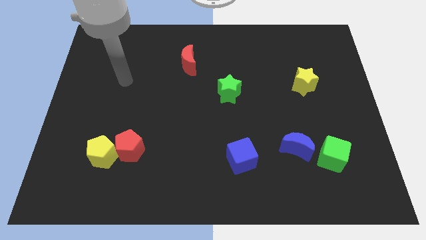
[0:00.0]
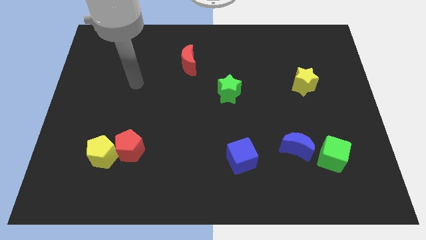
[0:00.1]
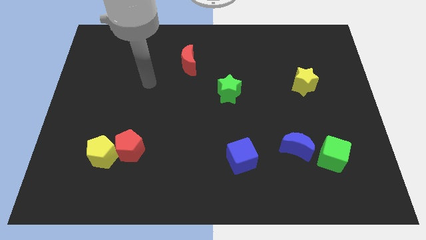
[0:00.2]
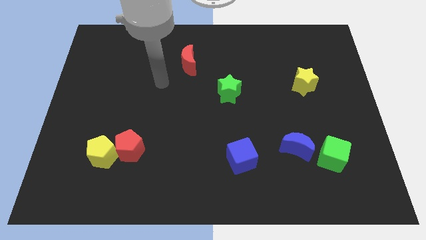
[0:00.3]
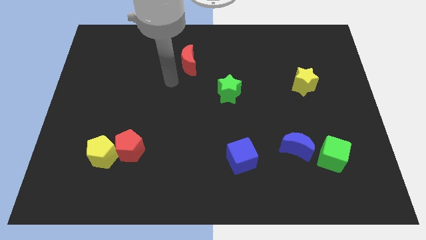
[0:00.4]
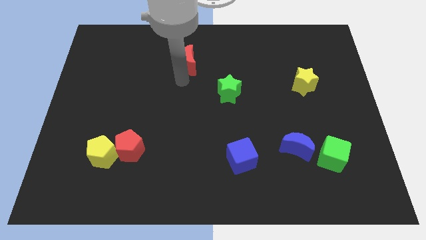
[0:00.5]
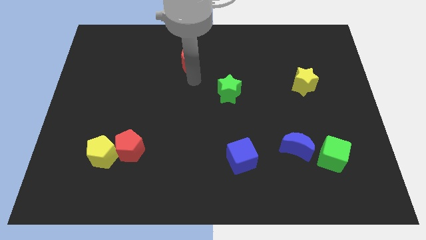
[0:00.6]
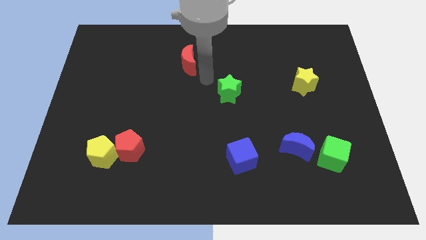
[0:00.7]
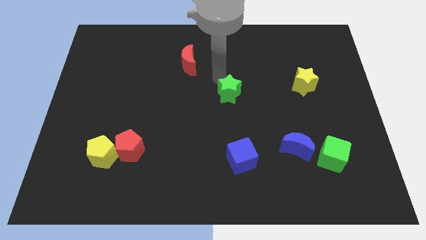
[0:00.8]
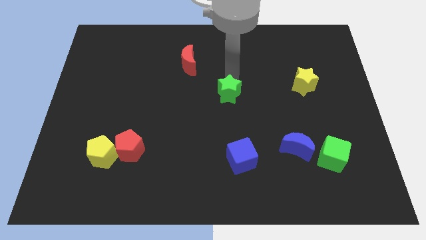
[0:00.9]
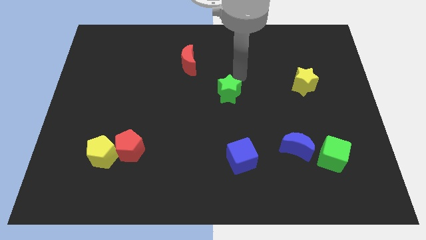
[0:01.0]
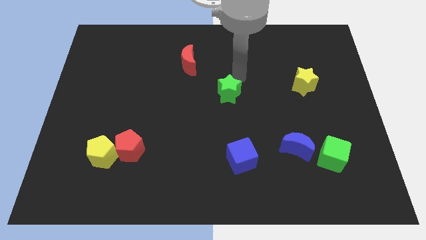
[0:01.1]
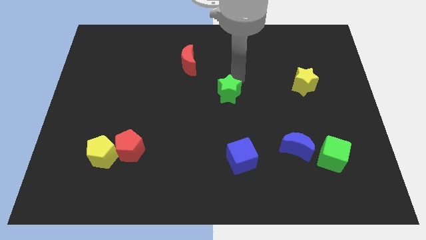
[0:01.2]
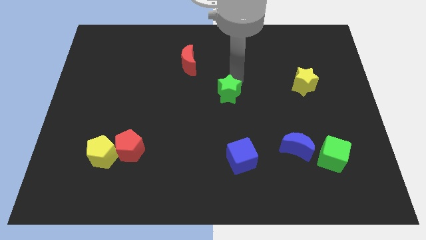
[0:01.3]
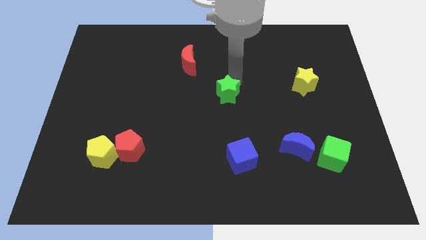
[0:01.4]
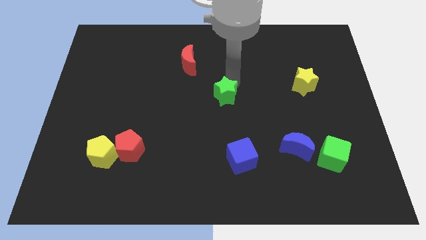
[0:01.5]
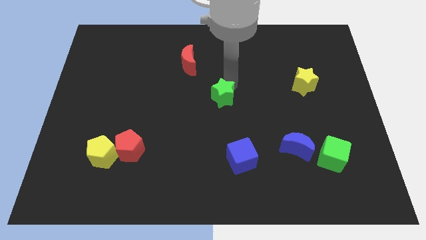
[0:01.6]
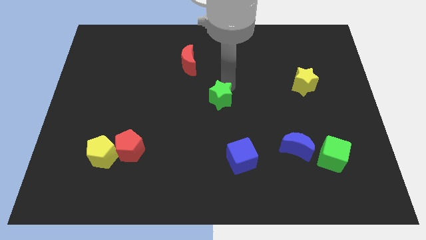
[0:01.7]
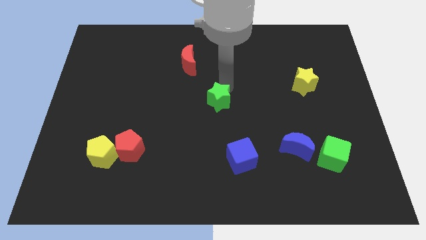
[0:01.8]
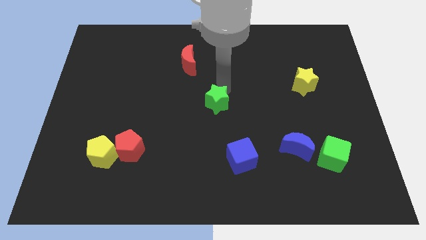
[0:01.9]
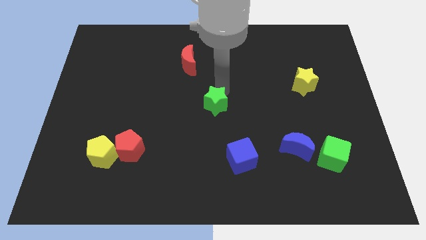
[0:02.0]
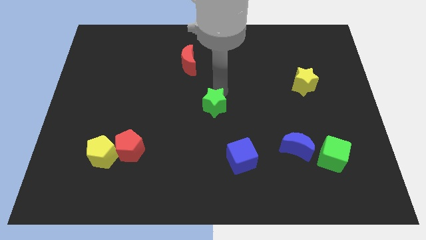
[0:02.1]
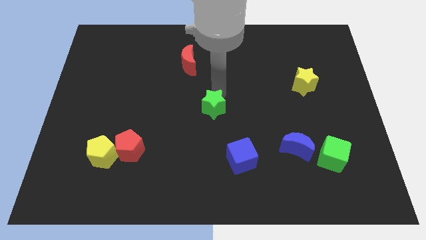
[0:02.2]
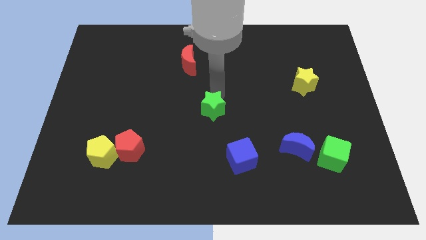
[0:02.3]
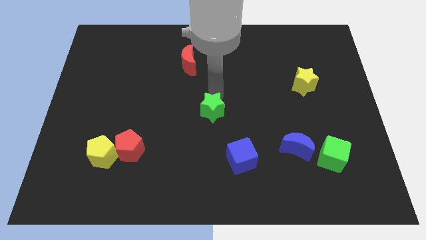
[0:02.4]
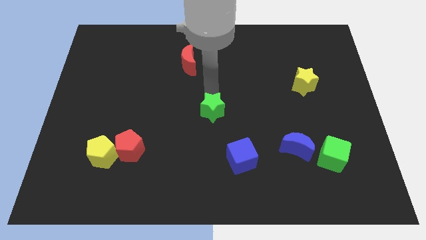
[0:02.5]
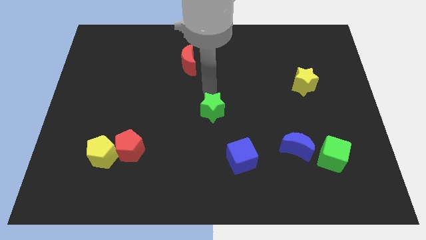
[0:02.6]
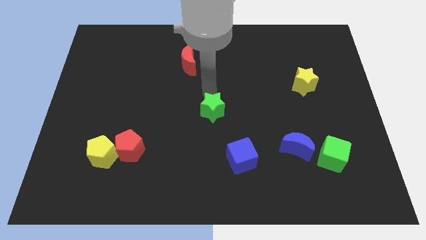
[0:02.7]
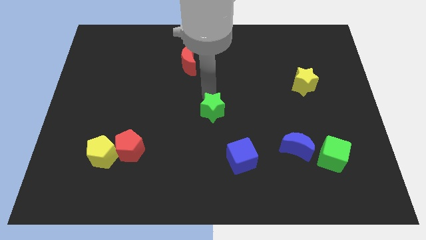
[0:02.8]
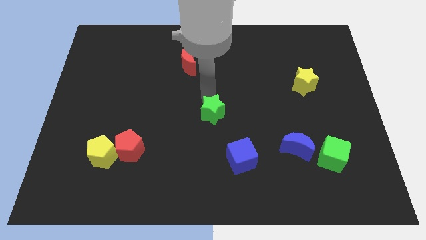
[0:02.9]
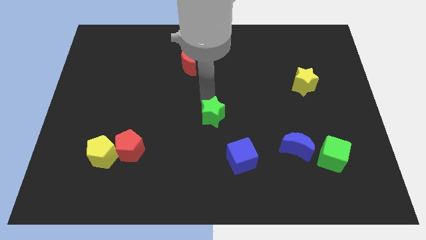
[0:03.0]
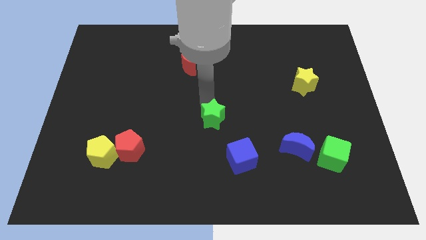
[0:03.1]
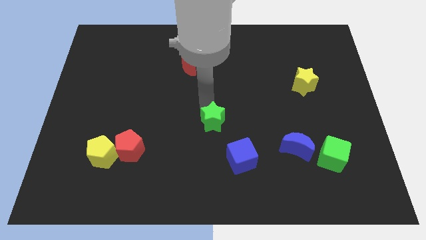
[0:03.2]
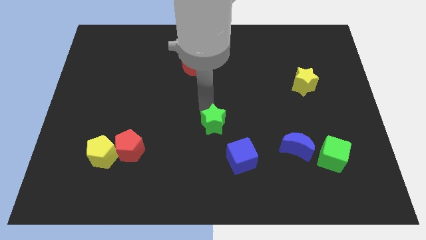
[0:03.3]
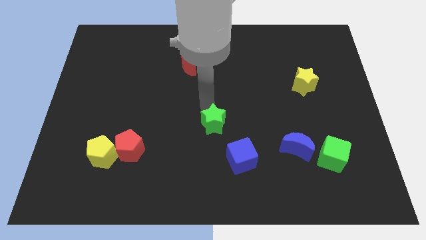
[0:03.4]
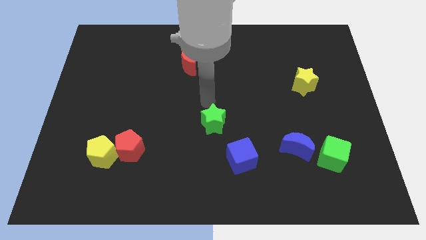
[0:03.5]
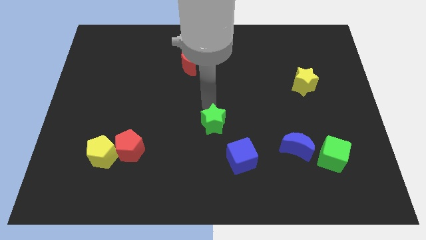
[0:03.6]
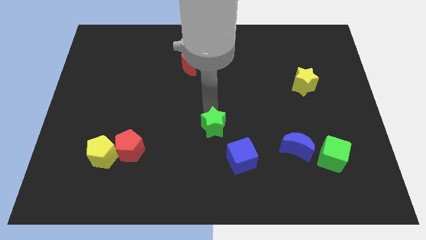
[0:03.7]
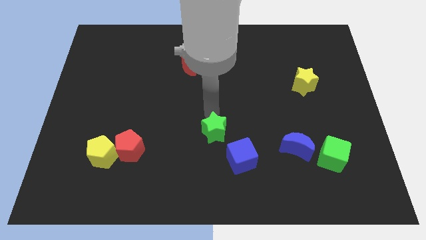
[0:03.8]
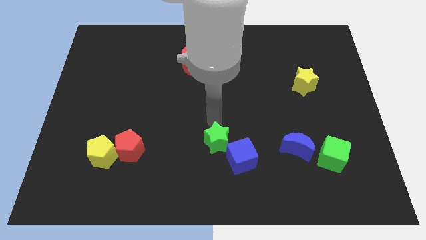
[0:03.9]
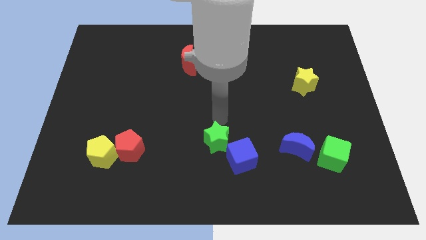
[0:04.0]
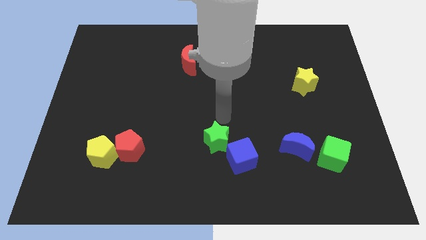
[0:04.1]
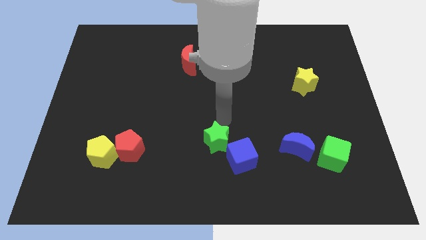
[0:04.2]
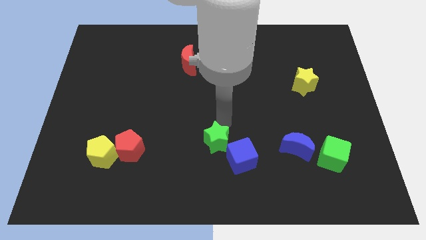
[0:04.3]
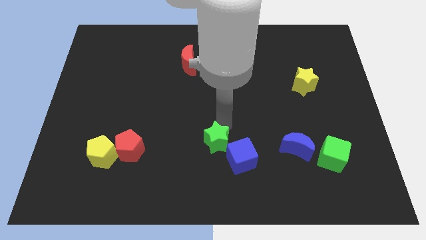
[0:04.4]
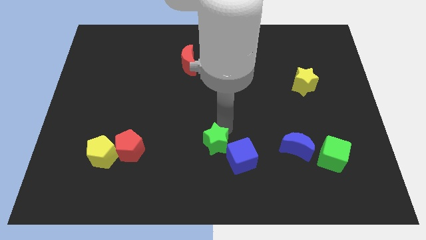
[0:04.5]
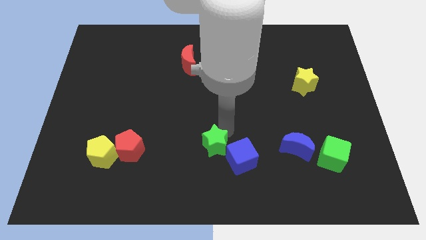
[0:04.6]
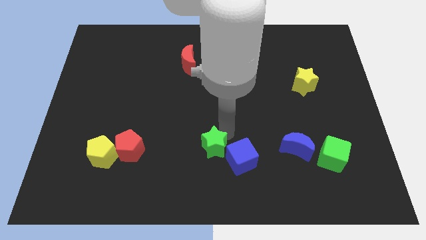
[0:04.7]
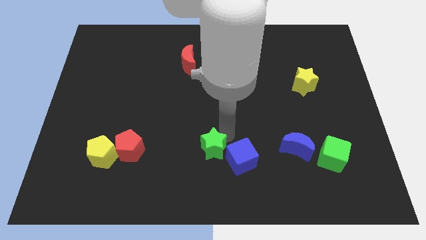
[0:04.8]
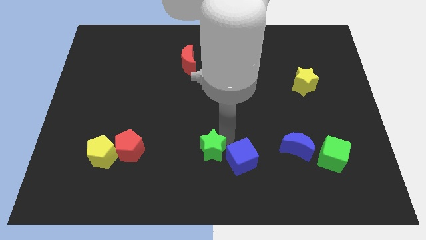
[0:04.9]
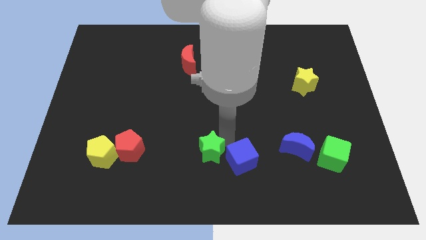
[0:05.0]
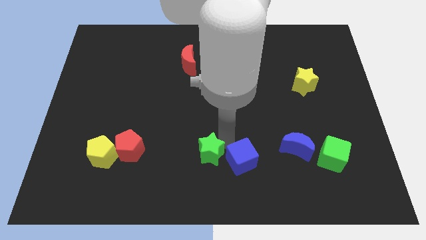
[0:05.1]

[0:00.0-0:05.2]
move the green star to the bottom

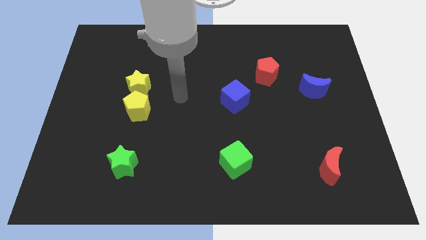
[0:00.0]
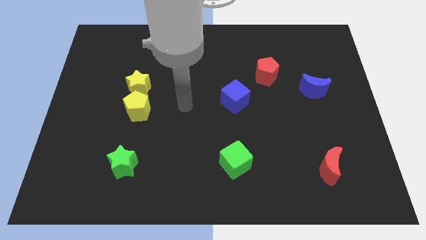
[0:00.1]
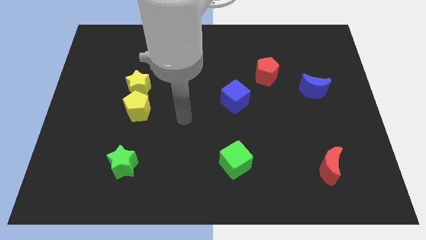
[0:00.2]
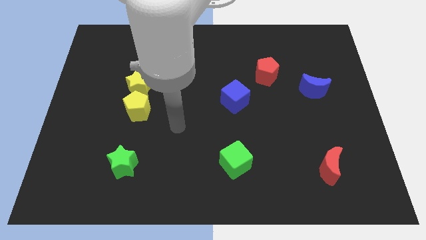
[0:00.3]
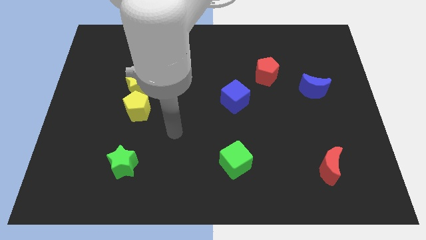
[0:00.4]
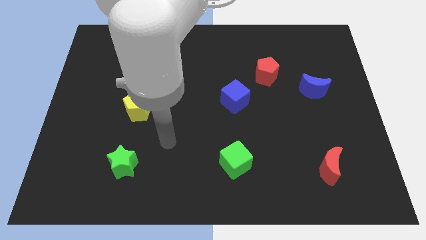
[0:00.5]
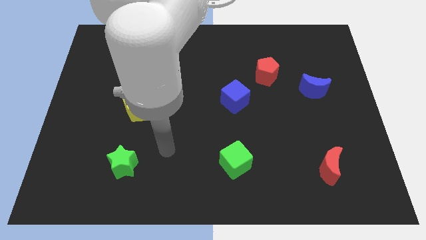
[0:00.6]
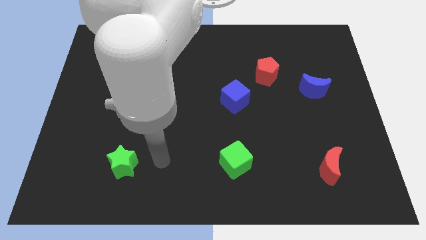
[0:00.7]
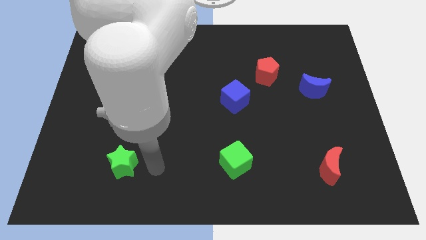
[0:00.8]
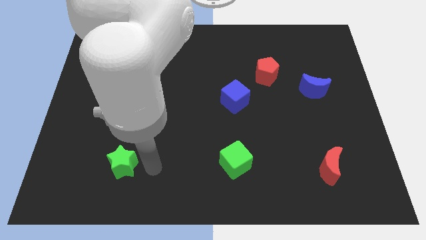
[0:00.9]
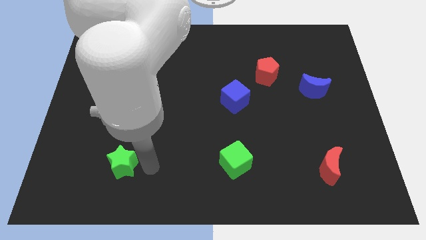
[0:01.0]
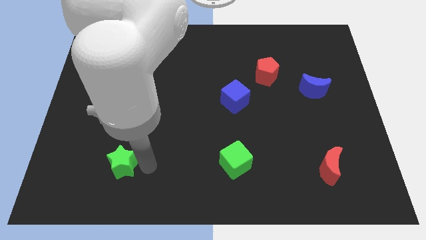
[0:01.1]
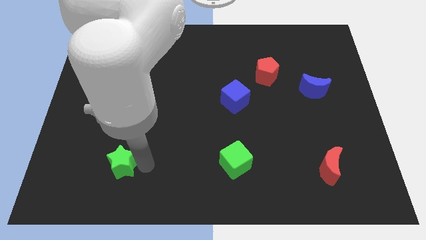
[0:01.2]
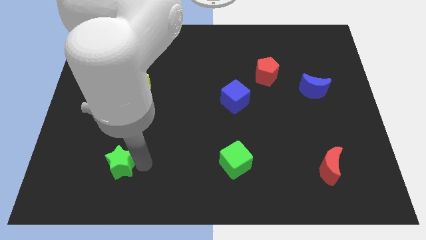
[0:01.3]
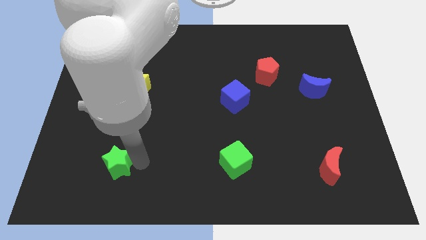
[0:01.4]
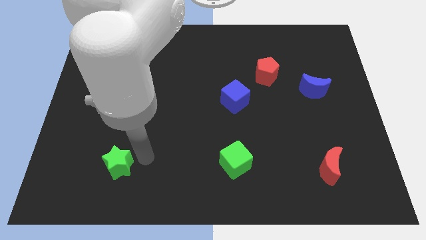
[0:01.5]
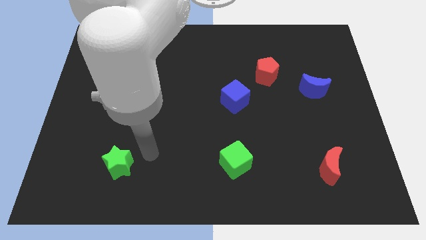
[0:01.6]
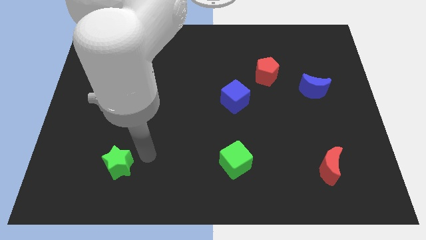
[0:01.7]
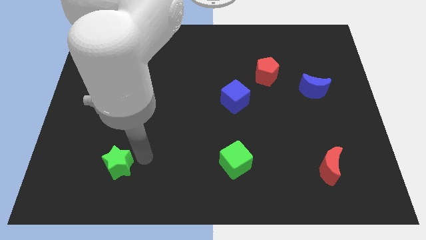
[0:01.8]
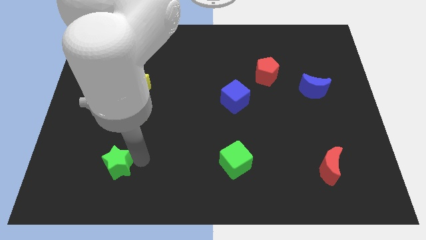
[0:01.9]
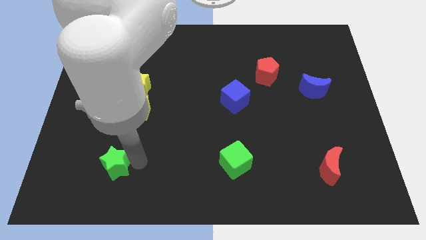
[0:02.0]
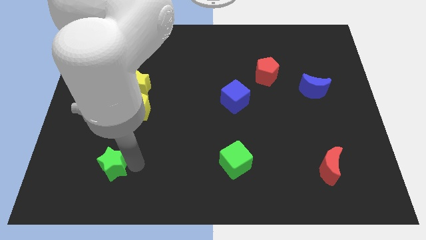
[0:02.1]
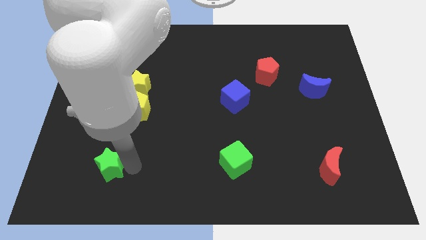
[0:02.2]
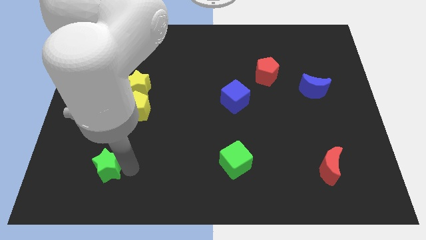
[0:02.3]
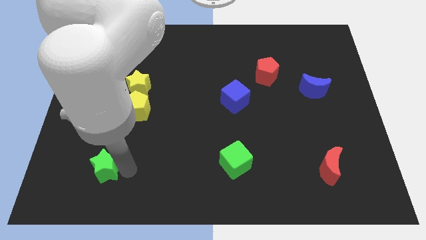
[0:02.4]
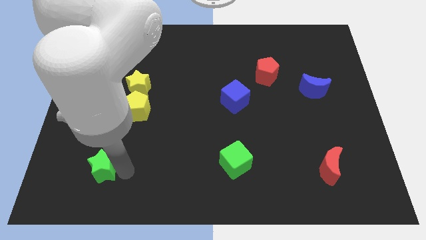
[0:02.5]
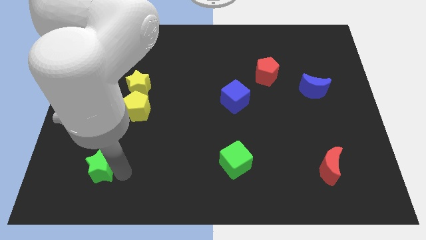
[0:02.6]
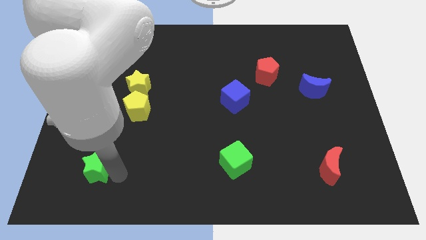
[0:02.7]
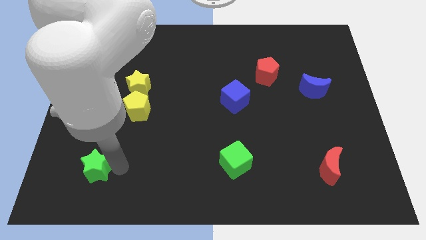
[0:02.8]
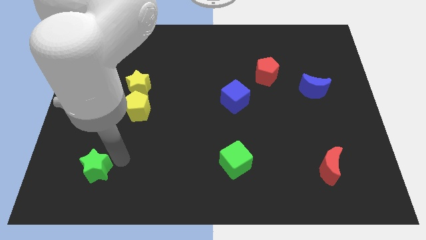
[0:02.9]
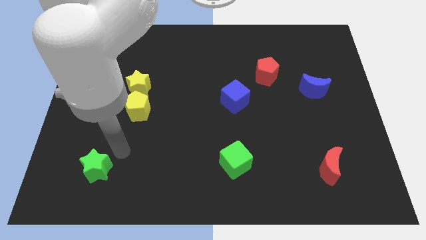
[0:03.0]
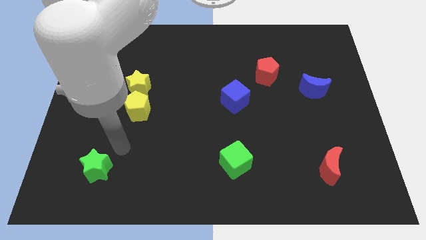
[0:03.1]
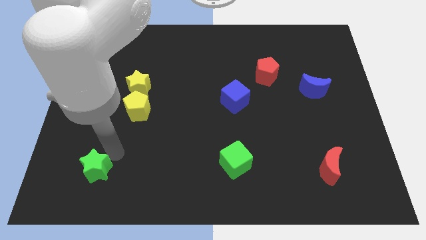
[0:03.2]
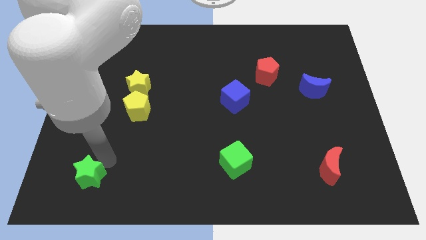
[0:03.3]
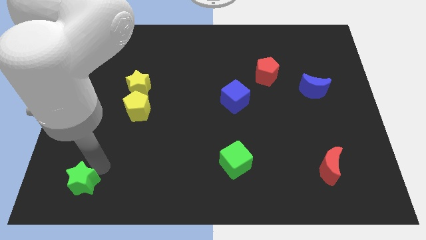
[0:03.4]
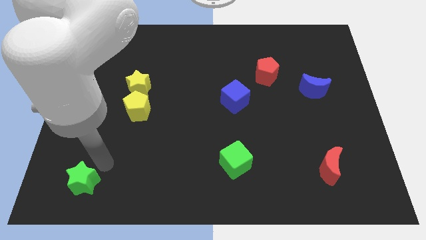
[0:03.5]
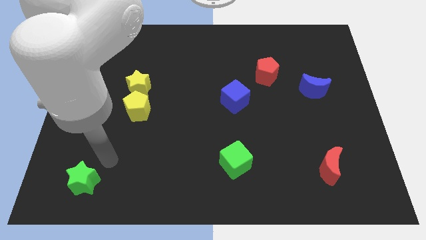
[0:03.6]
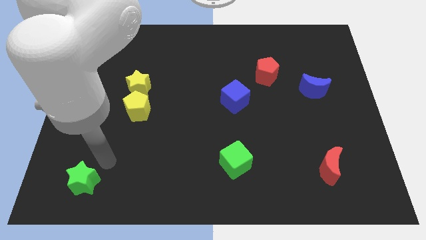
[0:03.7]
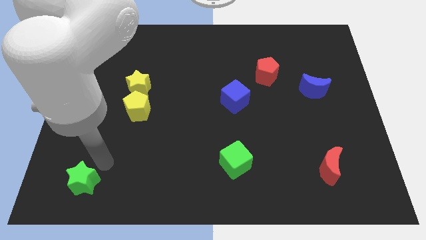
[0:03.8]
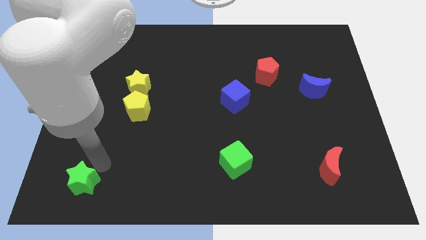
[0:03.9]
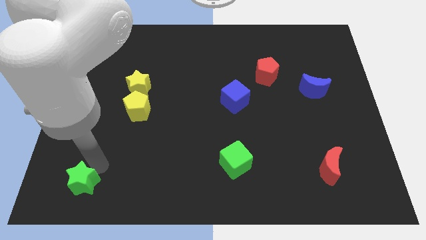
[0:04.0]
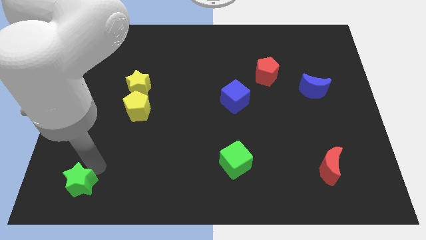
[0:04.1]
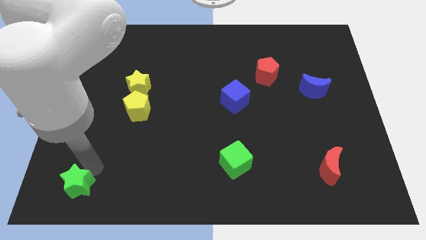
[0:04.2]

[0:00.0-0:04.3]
put the green star to the bottom left of the board
